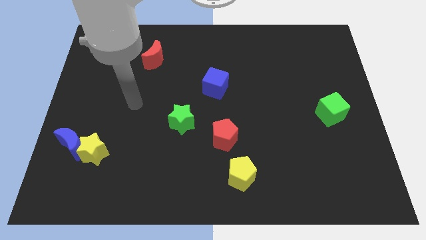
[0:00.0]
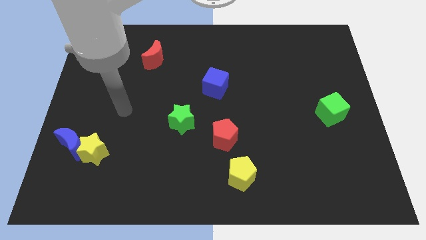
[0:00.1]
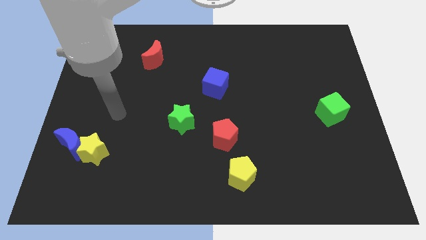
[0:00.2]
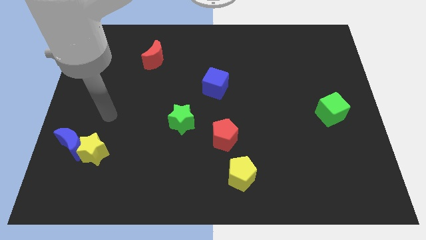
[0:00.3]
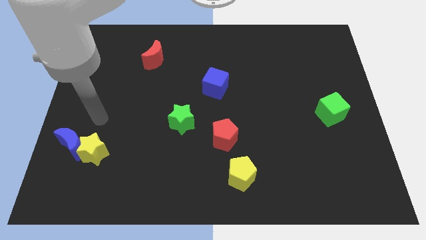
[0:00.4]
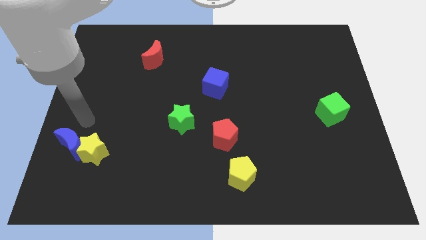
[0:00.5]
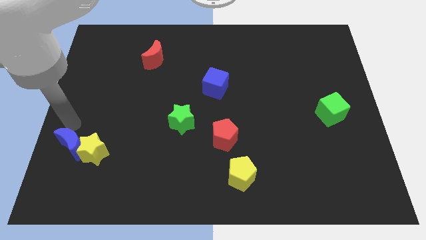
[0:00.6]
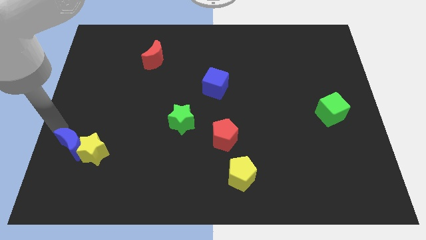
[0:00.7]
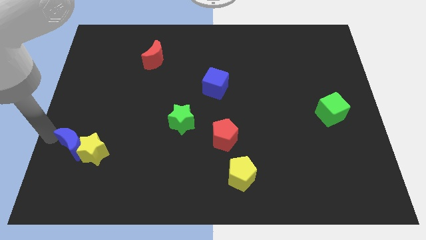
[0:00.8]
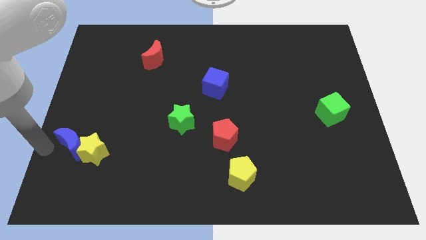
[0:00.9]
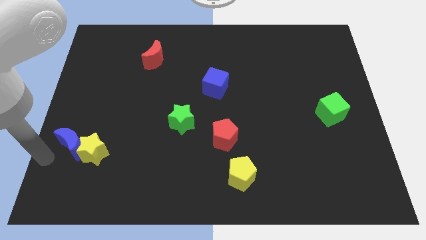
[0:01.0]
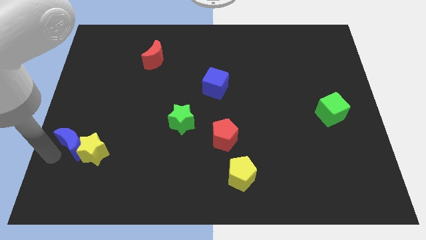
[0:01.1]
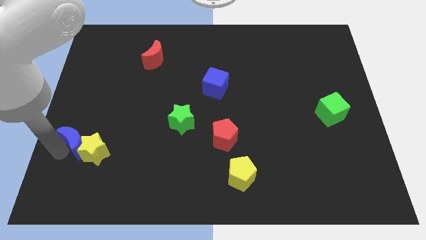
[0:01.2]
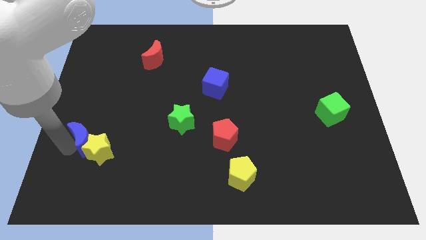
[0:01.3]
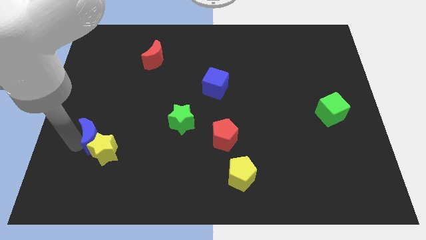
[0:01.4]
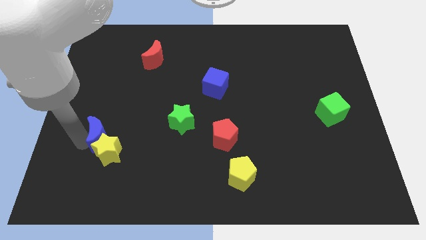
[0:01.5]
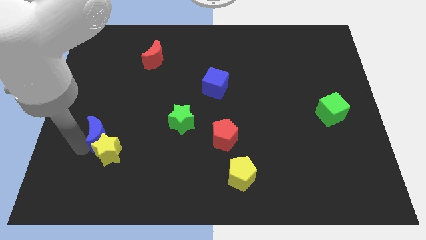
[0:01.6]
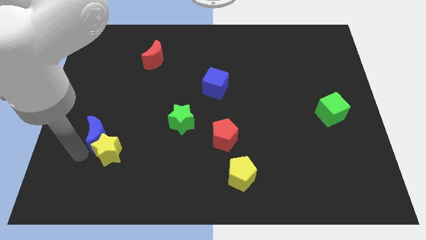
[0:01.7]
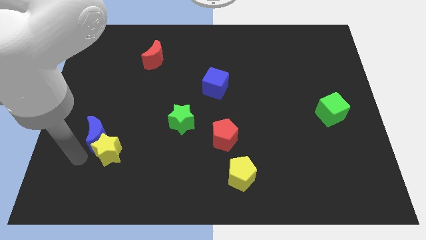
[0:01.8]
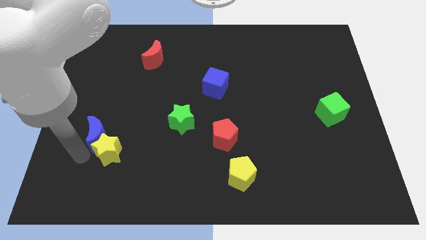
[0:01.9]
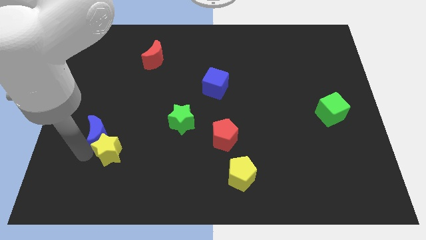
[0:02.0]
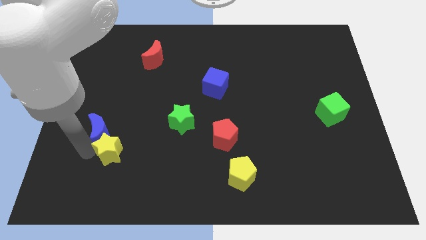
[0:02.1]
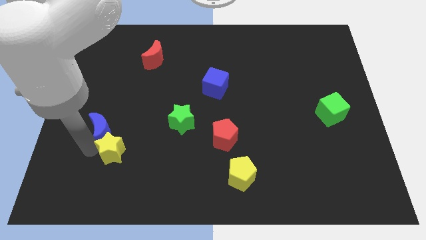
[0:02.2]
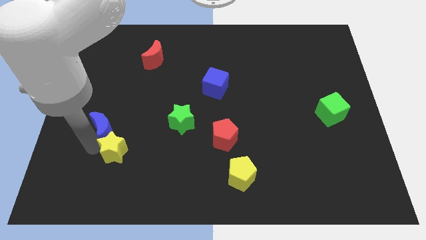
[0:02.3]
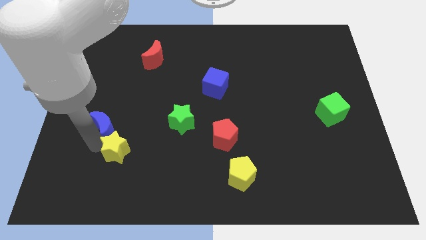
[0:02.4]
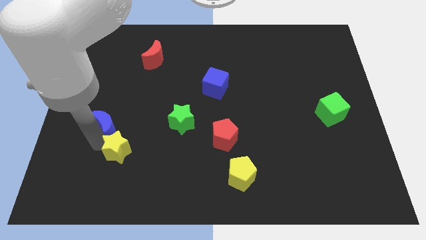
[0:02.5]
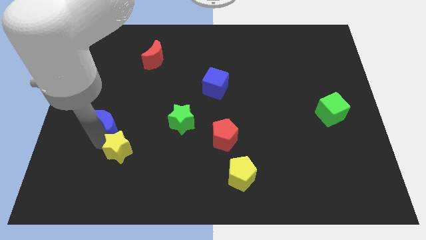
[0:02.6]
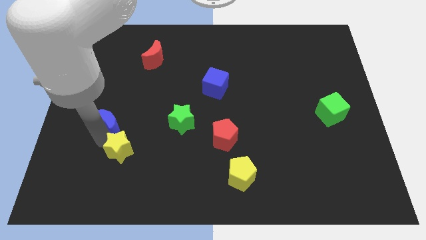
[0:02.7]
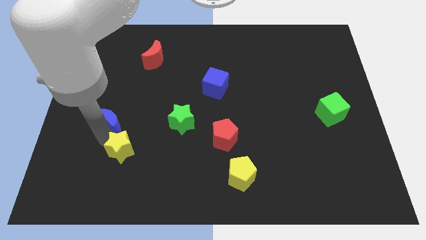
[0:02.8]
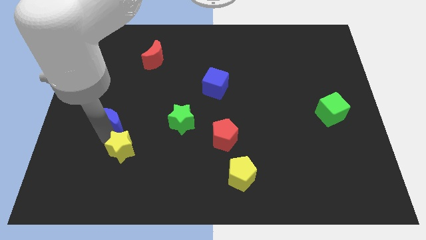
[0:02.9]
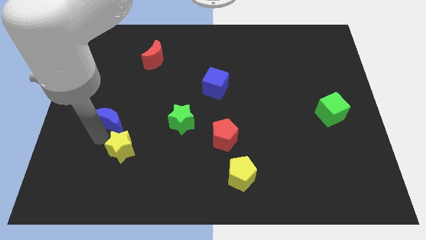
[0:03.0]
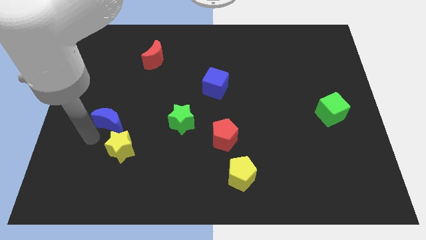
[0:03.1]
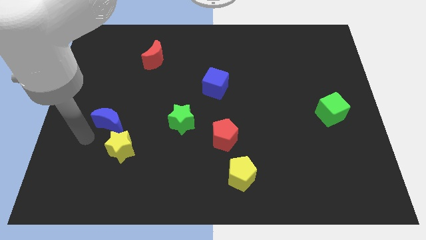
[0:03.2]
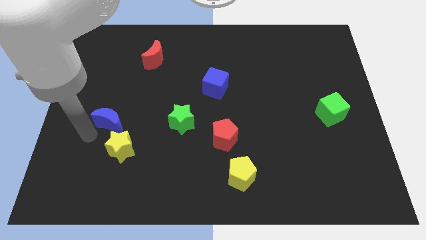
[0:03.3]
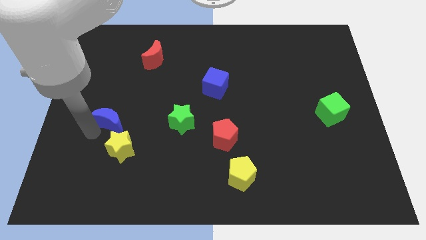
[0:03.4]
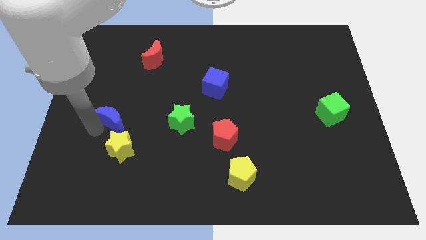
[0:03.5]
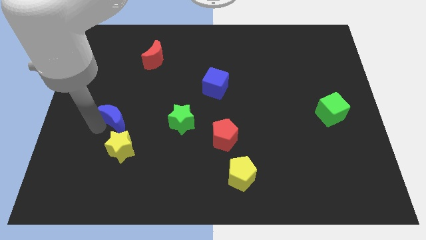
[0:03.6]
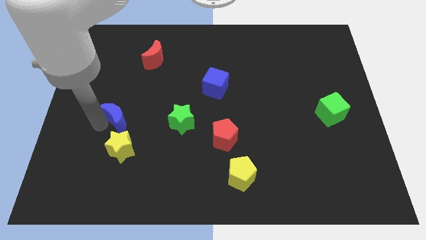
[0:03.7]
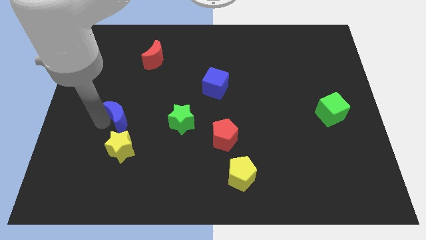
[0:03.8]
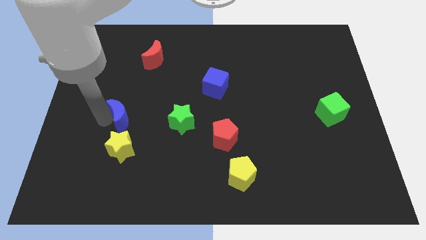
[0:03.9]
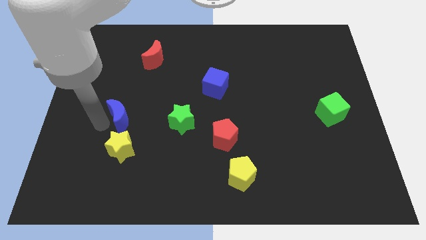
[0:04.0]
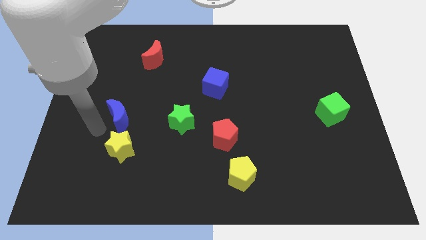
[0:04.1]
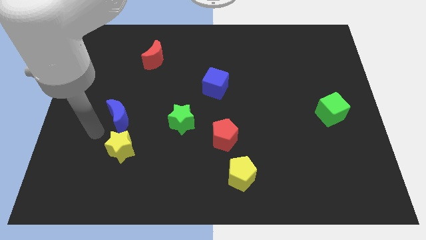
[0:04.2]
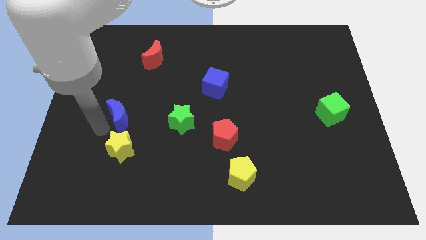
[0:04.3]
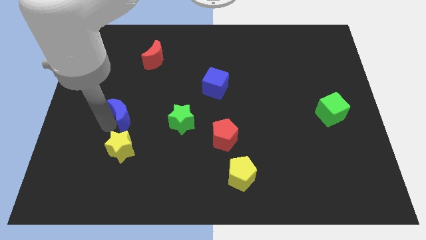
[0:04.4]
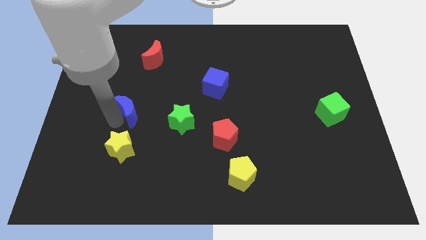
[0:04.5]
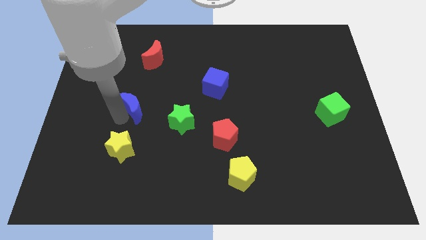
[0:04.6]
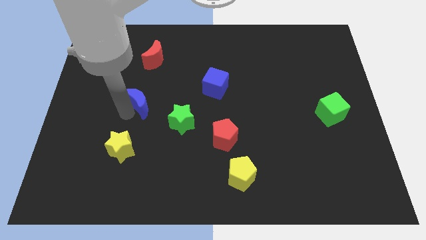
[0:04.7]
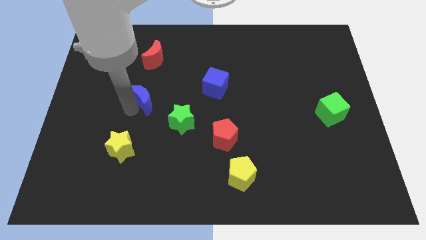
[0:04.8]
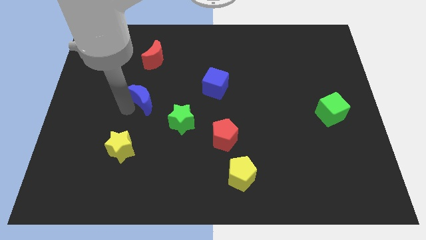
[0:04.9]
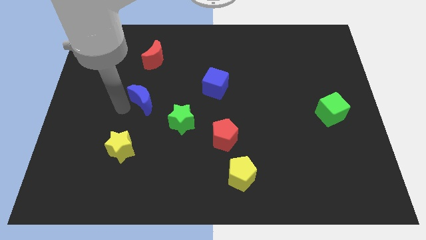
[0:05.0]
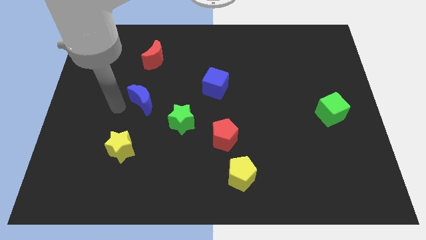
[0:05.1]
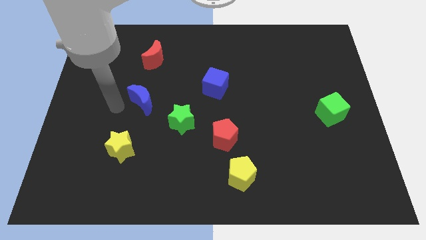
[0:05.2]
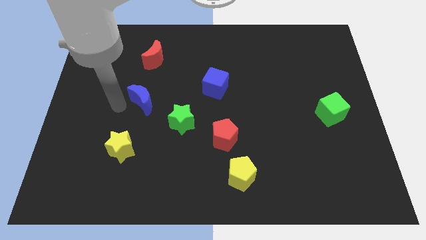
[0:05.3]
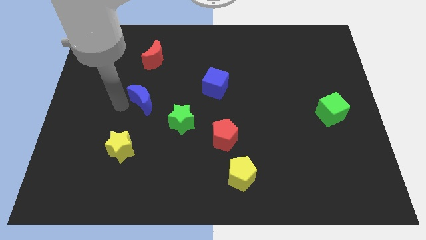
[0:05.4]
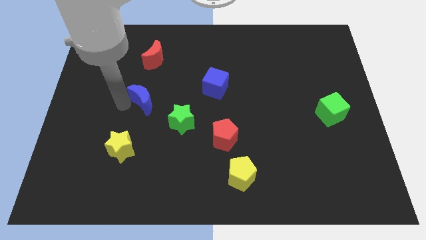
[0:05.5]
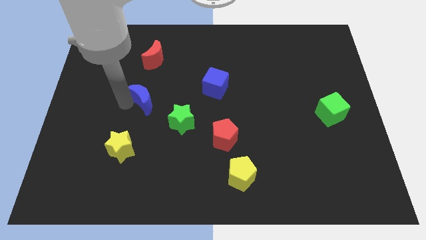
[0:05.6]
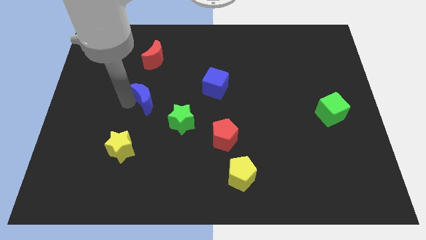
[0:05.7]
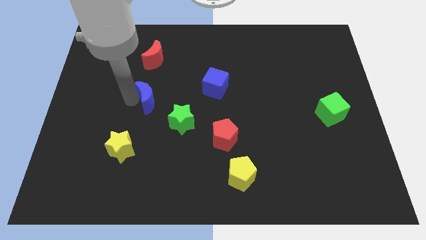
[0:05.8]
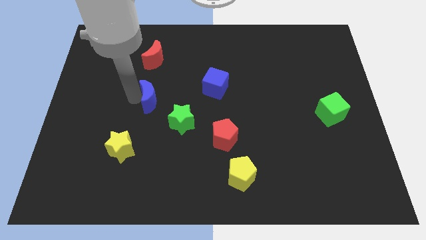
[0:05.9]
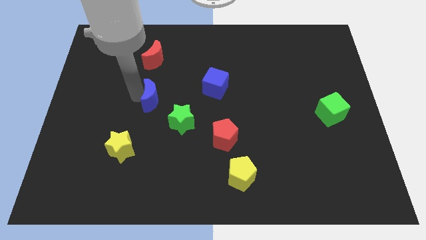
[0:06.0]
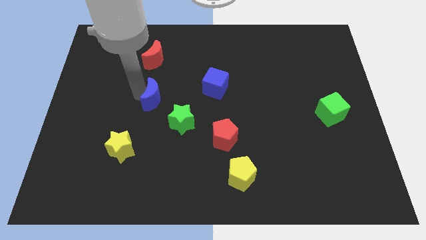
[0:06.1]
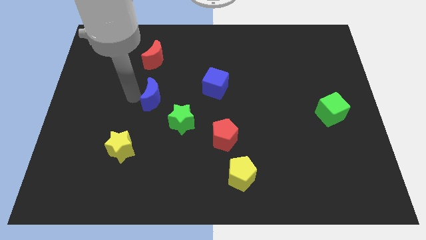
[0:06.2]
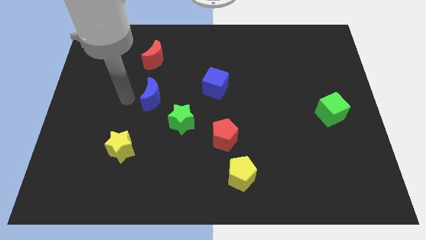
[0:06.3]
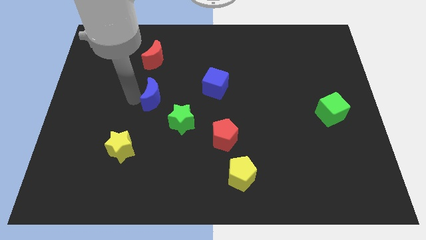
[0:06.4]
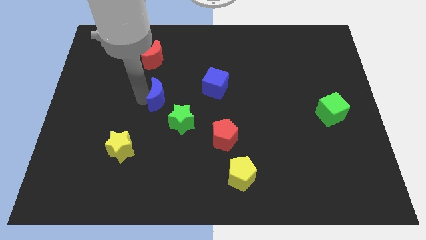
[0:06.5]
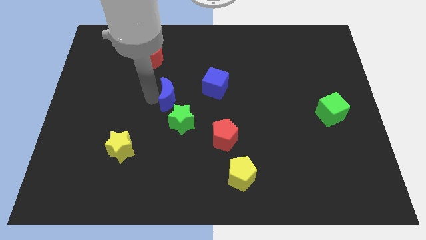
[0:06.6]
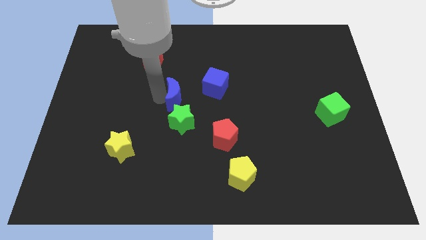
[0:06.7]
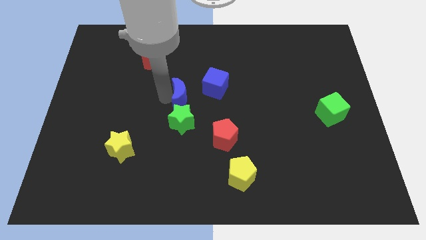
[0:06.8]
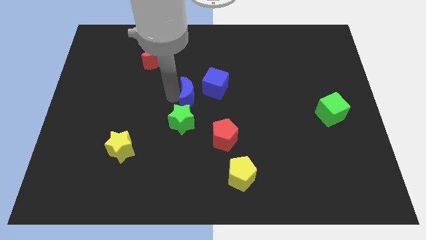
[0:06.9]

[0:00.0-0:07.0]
push the blue moon diagonally up and to the right of the green star
